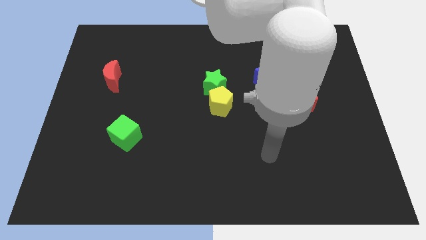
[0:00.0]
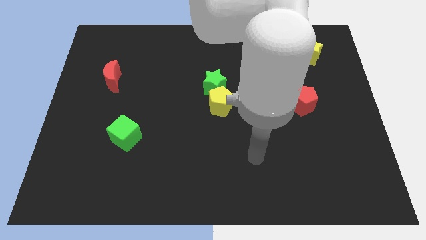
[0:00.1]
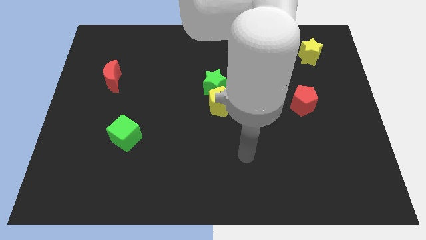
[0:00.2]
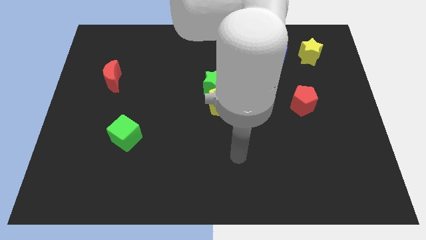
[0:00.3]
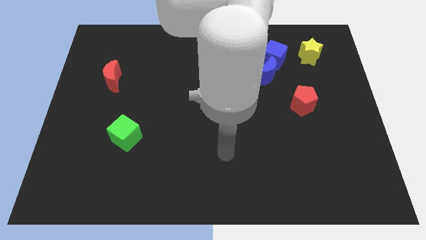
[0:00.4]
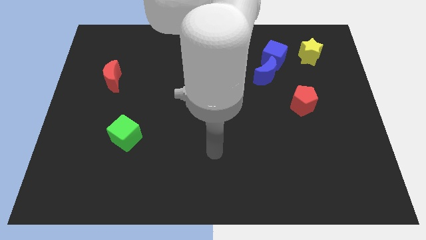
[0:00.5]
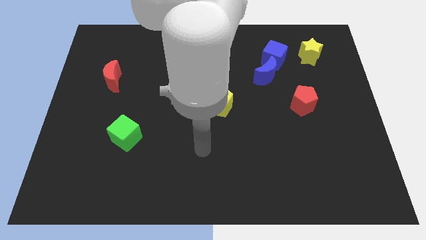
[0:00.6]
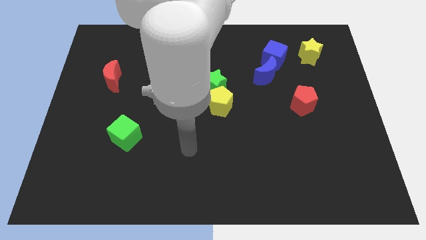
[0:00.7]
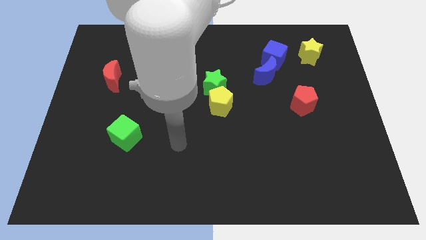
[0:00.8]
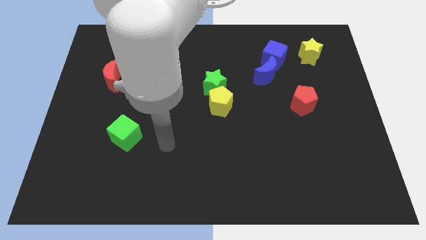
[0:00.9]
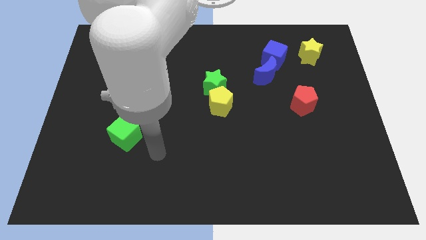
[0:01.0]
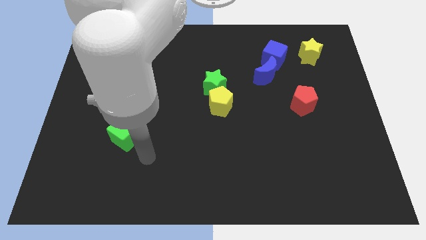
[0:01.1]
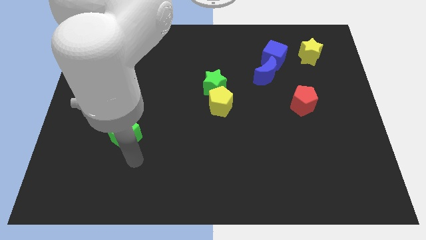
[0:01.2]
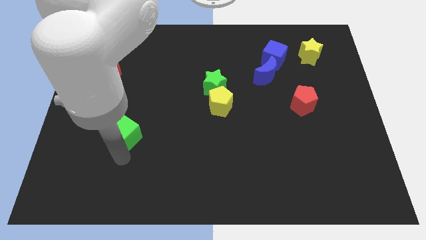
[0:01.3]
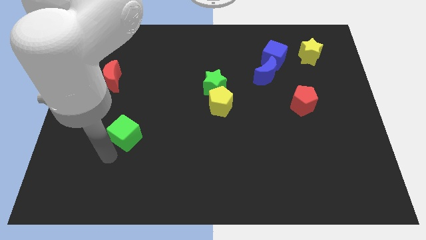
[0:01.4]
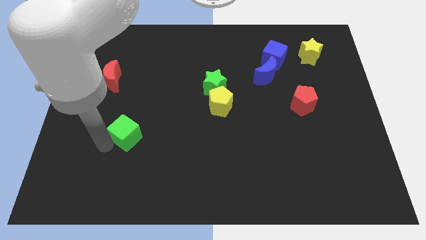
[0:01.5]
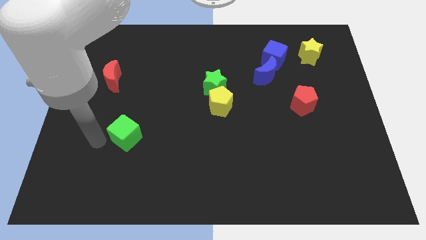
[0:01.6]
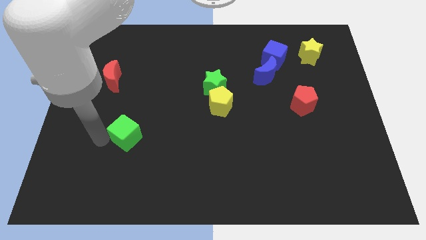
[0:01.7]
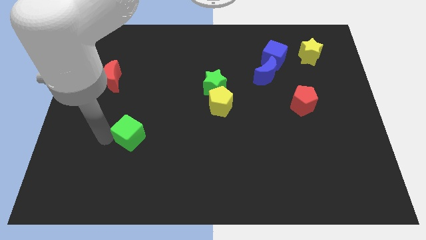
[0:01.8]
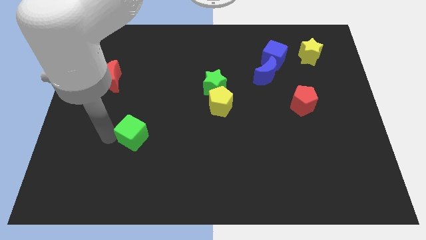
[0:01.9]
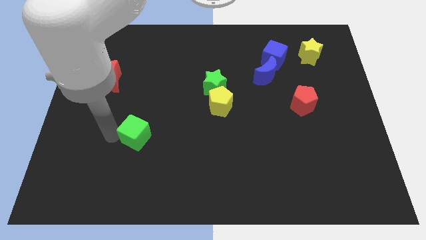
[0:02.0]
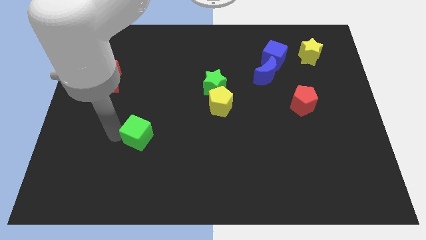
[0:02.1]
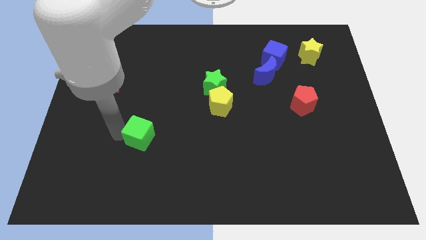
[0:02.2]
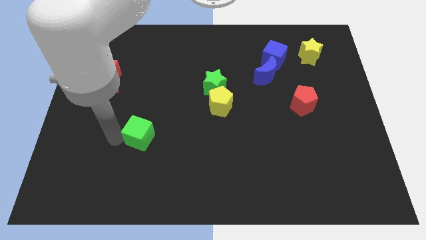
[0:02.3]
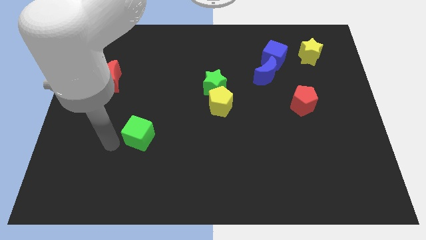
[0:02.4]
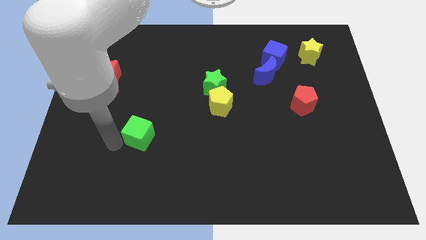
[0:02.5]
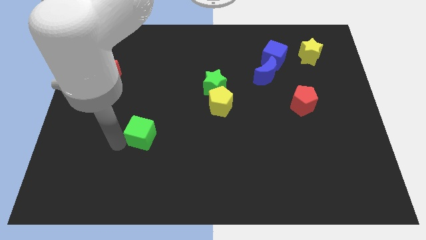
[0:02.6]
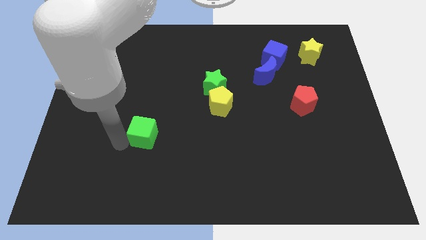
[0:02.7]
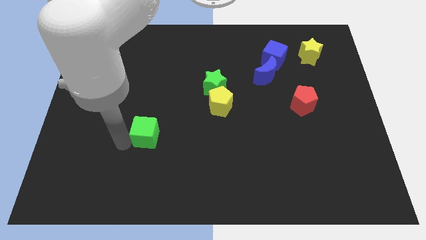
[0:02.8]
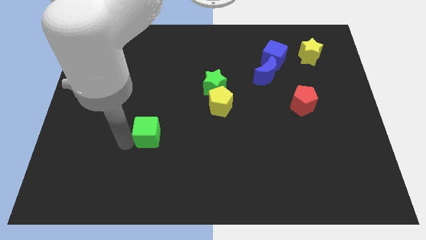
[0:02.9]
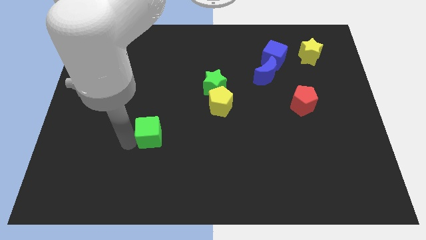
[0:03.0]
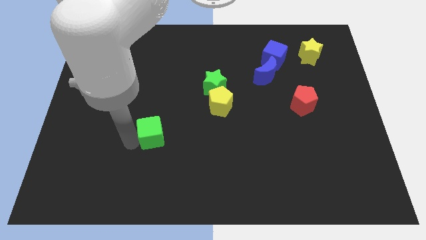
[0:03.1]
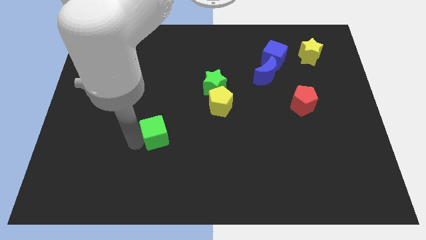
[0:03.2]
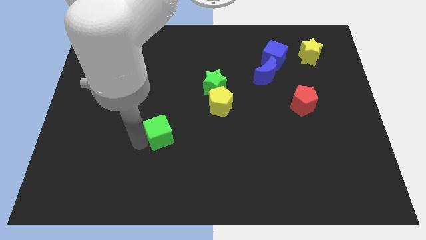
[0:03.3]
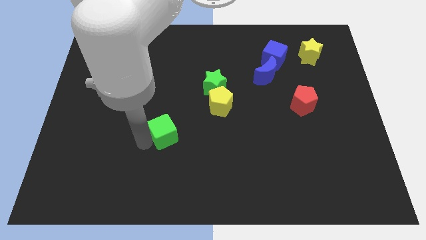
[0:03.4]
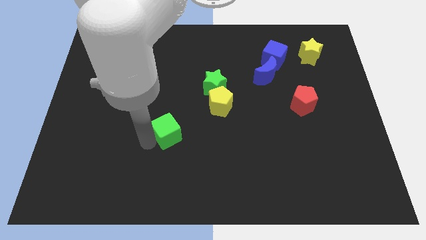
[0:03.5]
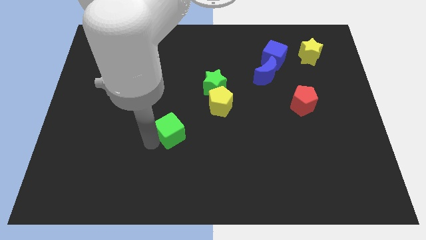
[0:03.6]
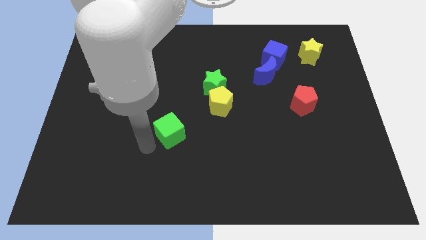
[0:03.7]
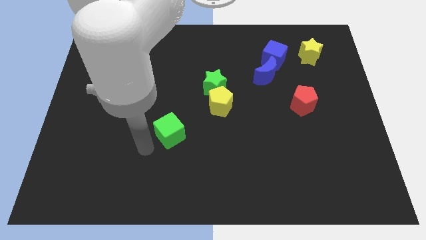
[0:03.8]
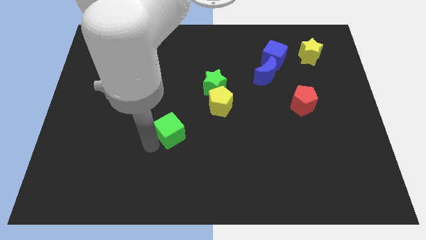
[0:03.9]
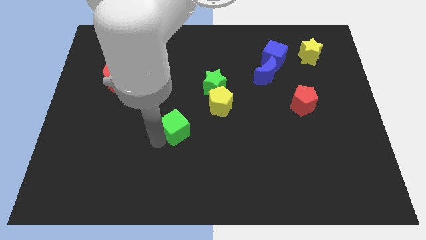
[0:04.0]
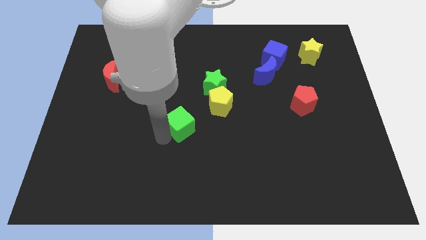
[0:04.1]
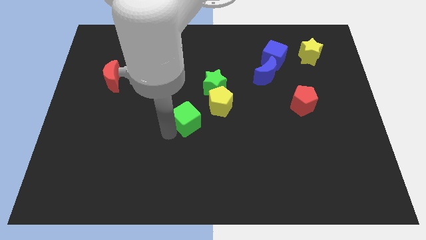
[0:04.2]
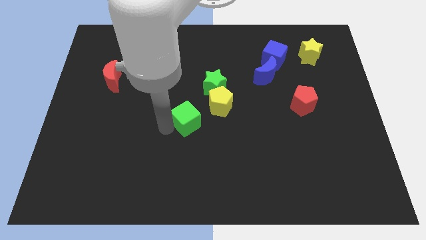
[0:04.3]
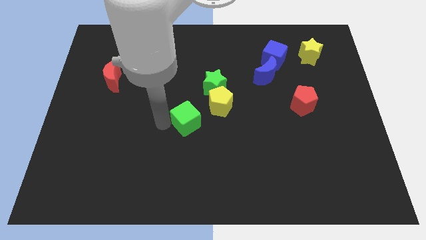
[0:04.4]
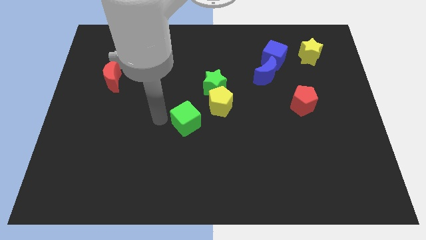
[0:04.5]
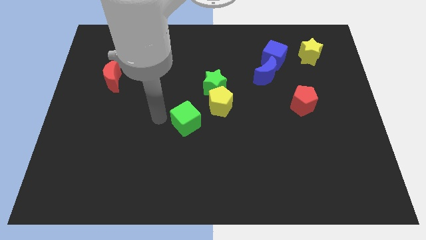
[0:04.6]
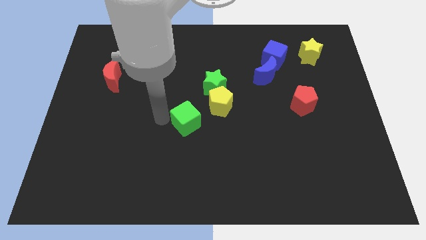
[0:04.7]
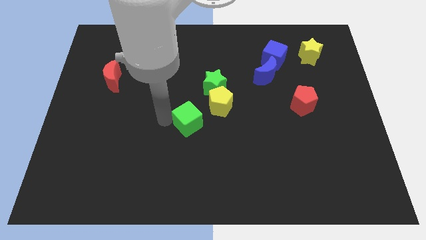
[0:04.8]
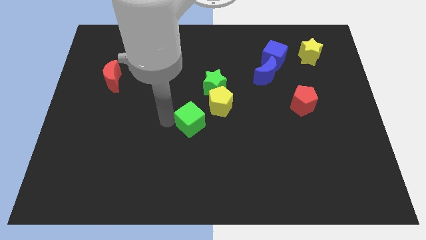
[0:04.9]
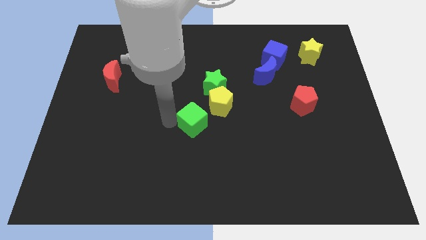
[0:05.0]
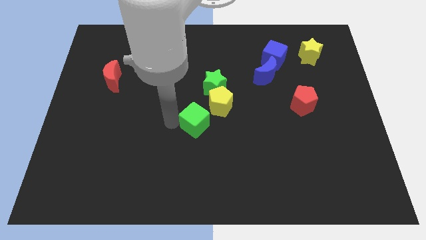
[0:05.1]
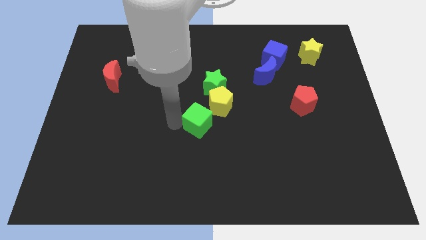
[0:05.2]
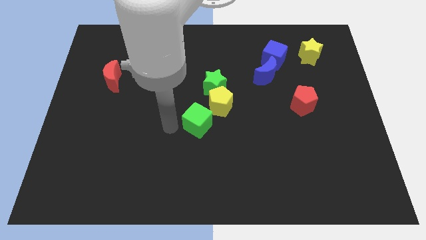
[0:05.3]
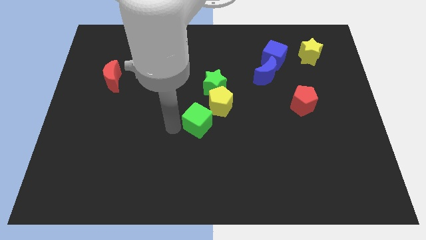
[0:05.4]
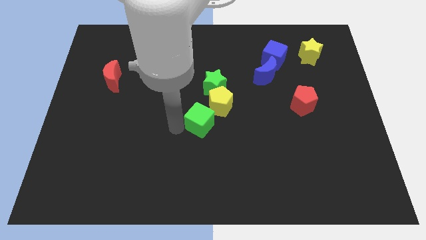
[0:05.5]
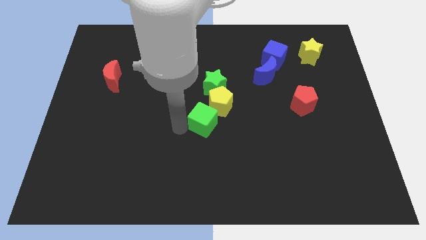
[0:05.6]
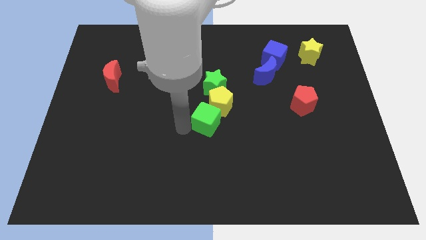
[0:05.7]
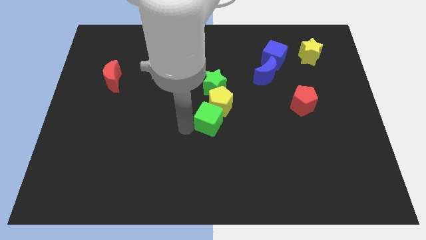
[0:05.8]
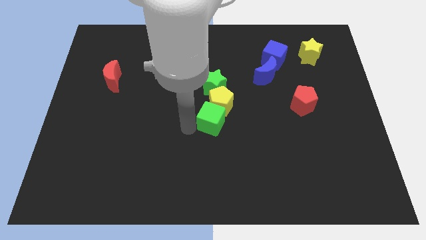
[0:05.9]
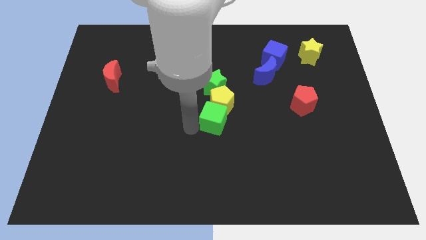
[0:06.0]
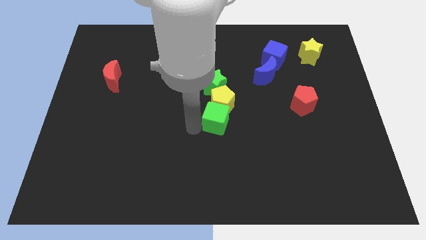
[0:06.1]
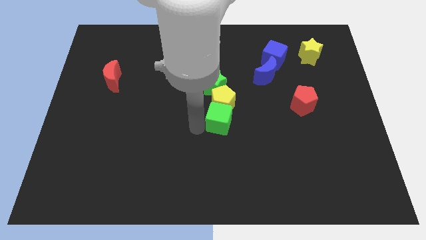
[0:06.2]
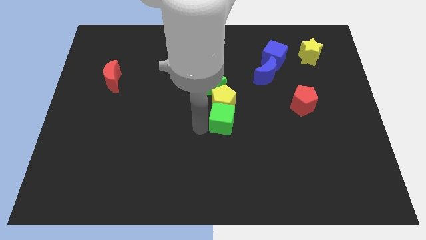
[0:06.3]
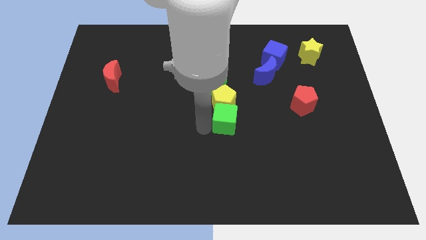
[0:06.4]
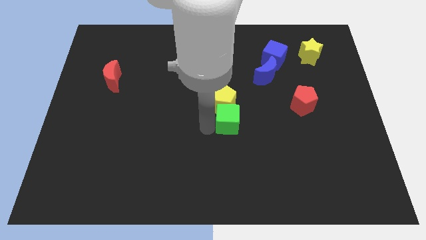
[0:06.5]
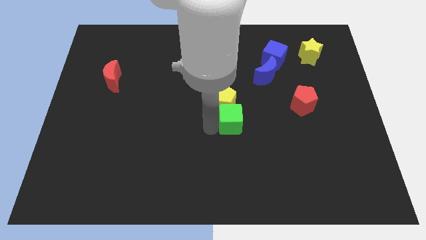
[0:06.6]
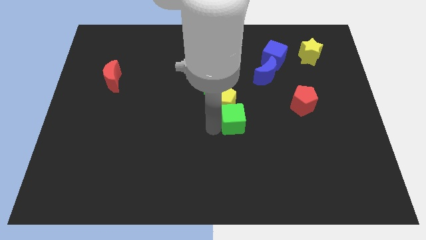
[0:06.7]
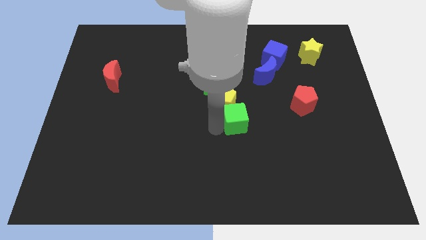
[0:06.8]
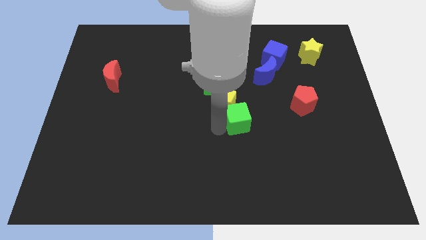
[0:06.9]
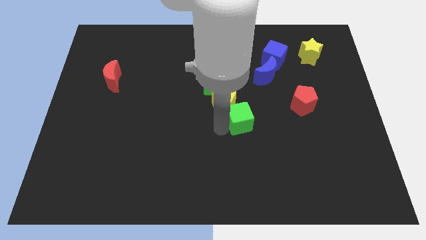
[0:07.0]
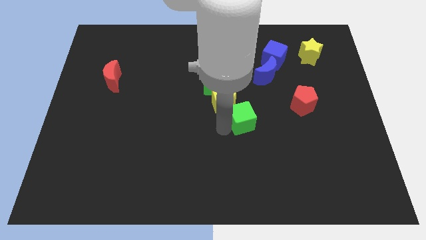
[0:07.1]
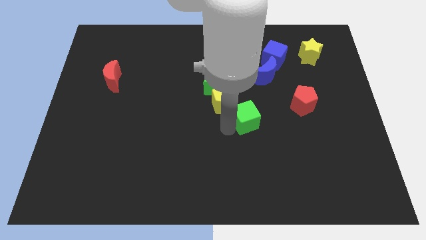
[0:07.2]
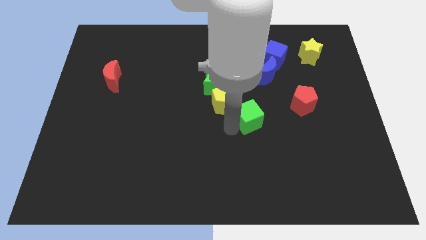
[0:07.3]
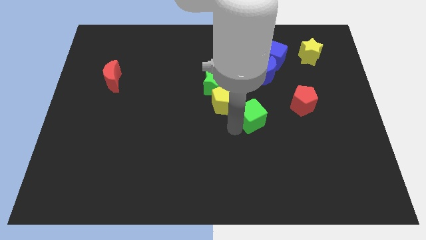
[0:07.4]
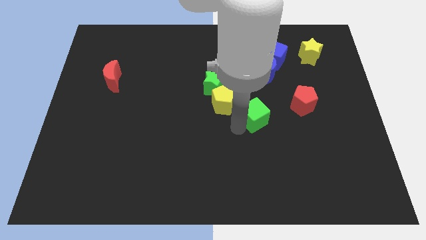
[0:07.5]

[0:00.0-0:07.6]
move the green cube to the bottom of the blue moon
